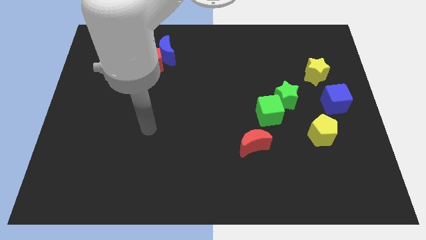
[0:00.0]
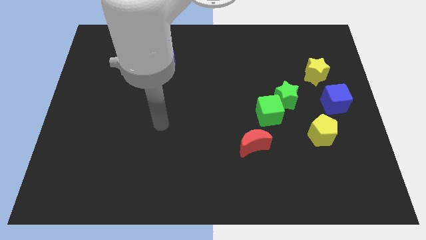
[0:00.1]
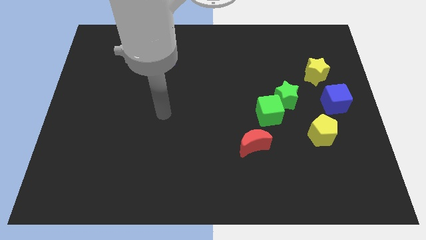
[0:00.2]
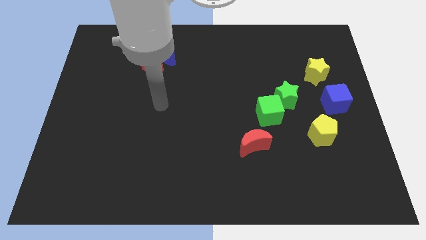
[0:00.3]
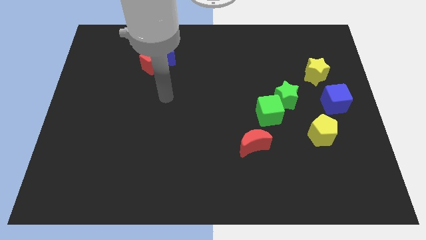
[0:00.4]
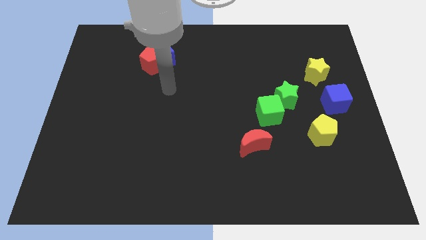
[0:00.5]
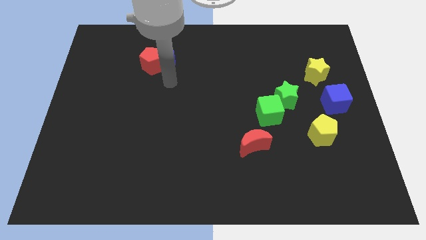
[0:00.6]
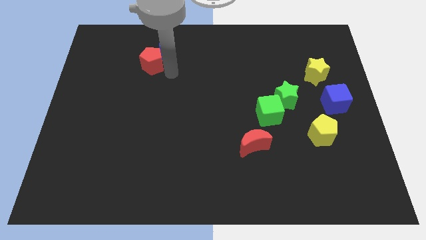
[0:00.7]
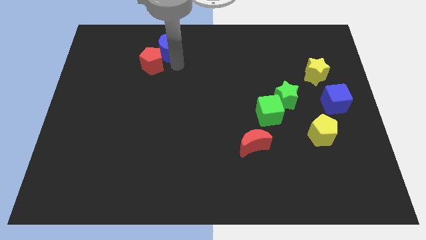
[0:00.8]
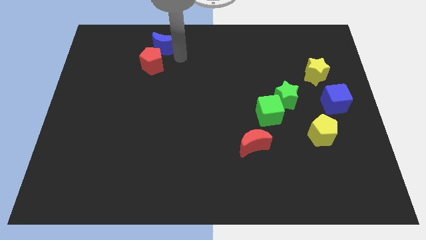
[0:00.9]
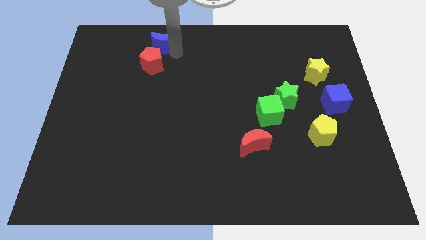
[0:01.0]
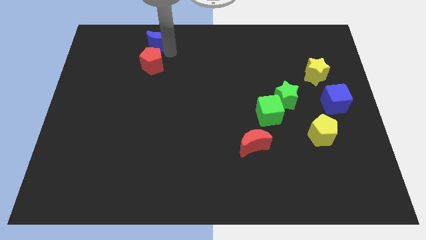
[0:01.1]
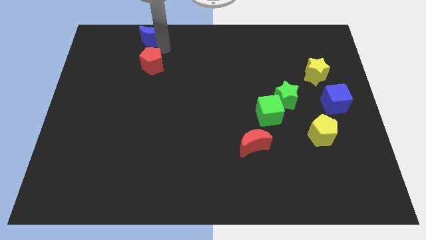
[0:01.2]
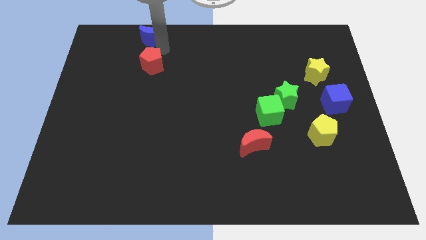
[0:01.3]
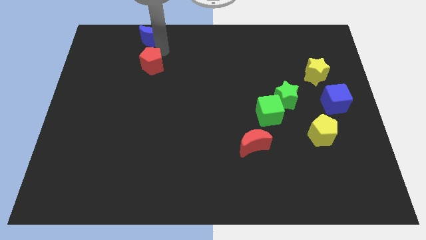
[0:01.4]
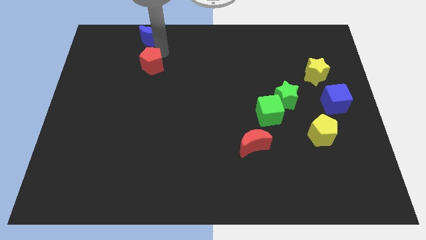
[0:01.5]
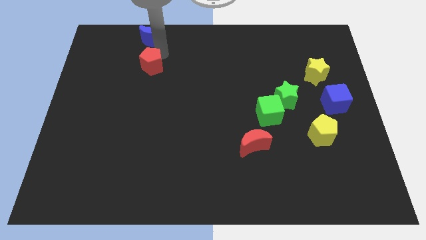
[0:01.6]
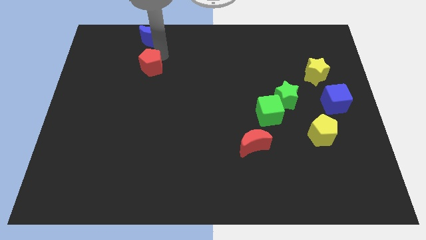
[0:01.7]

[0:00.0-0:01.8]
separate the red pentagon from the blue moon

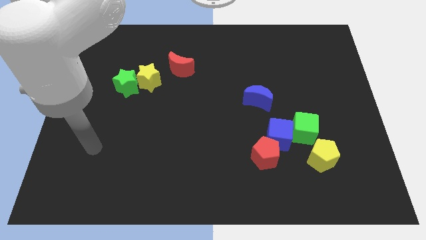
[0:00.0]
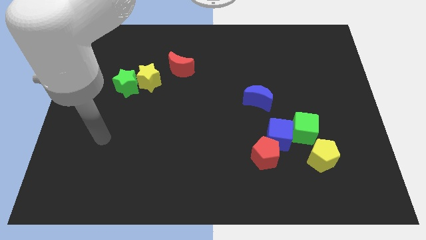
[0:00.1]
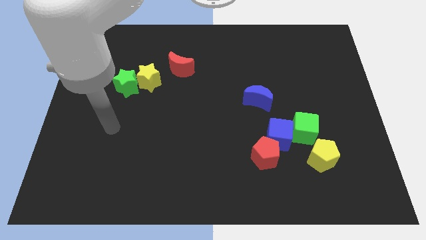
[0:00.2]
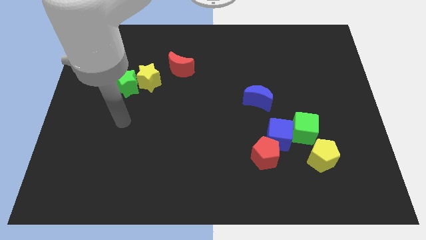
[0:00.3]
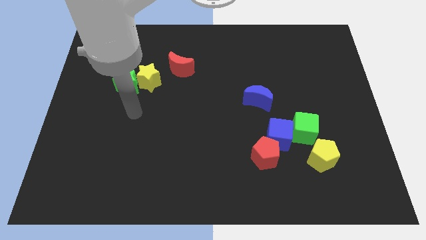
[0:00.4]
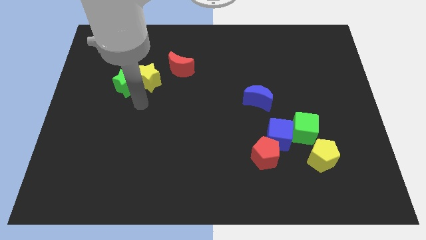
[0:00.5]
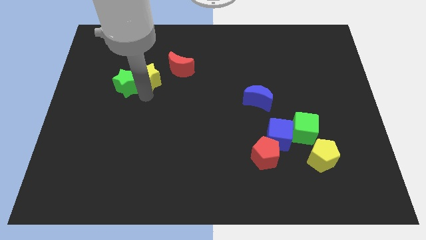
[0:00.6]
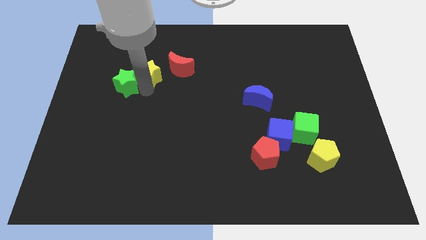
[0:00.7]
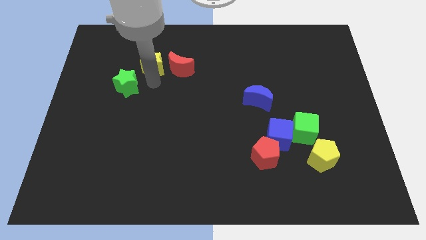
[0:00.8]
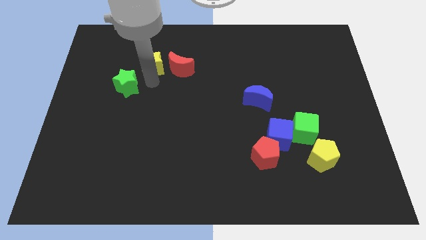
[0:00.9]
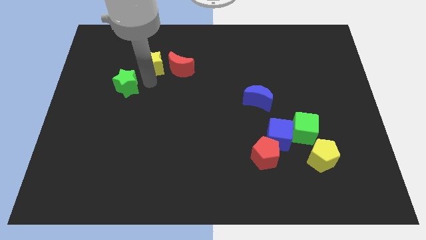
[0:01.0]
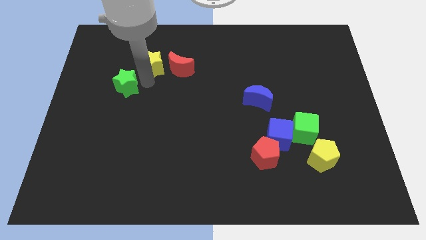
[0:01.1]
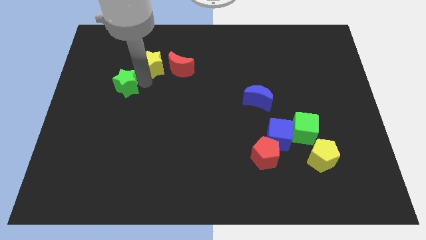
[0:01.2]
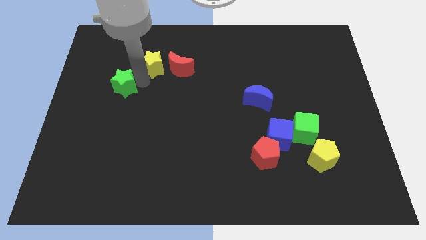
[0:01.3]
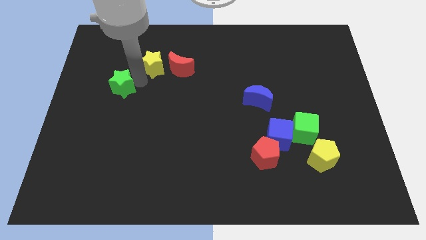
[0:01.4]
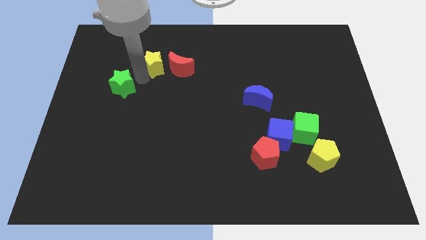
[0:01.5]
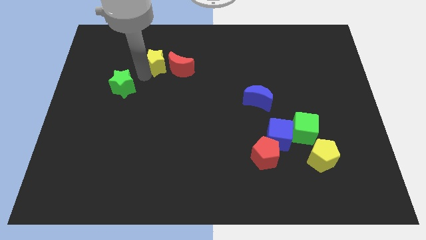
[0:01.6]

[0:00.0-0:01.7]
move the green star away from the yellow star

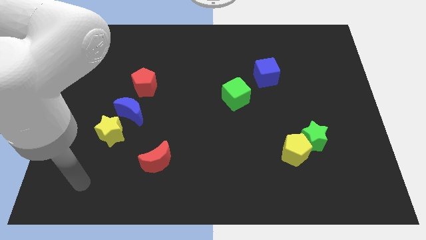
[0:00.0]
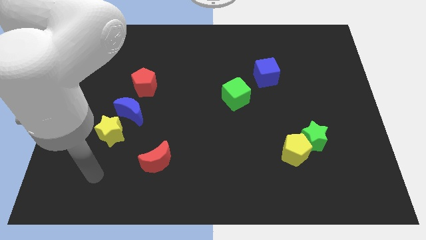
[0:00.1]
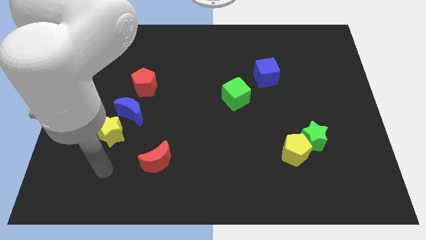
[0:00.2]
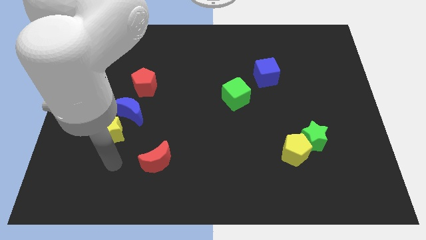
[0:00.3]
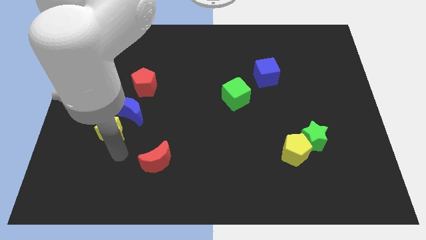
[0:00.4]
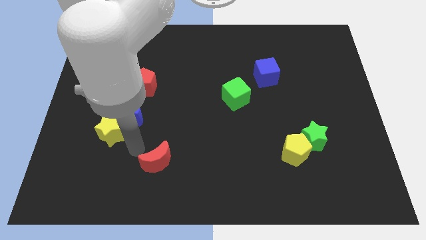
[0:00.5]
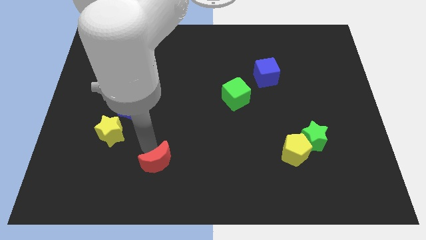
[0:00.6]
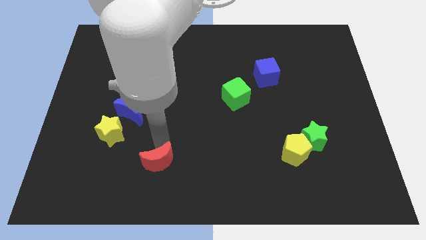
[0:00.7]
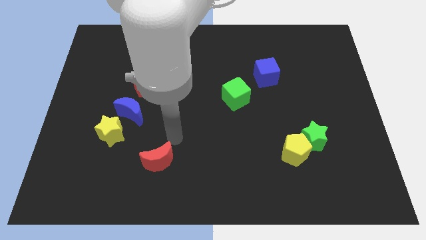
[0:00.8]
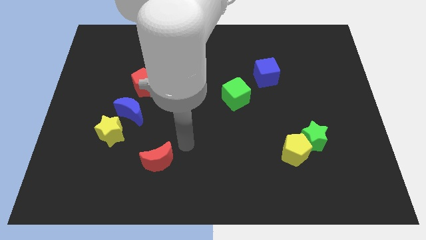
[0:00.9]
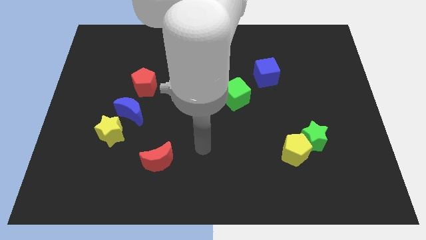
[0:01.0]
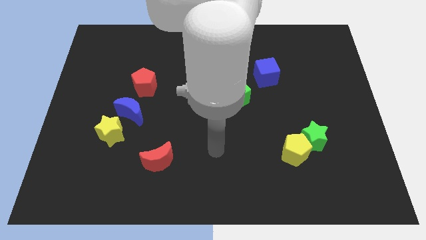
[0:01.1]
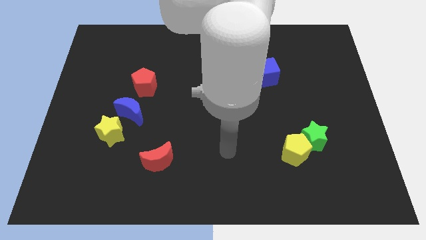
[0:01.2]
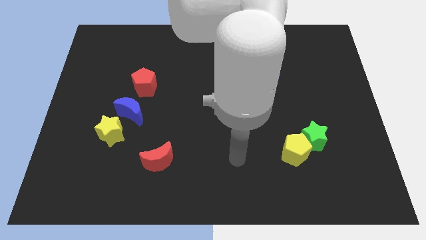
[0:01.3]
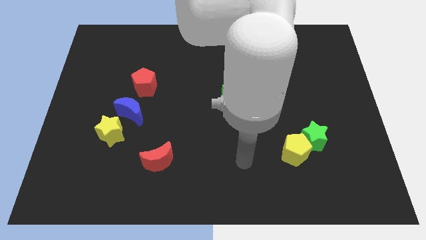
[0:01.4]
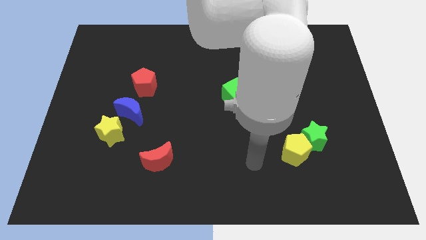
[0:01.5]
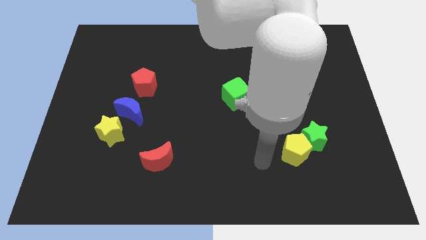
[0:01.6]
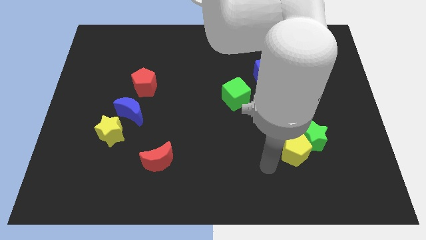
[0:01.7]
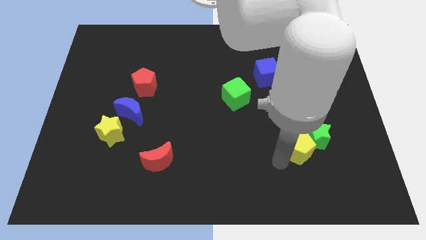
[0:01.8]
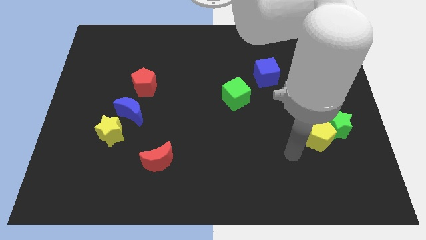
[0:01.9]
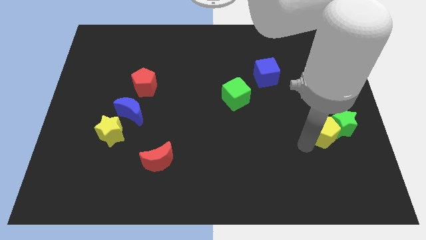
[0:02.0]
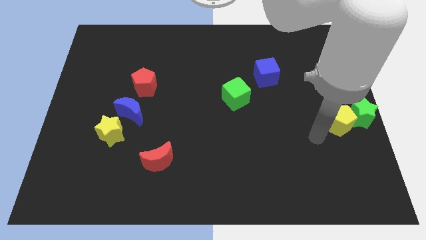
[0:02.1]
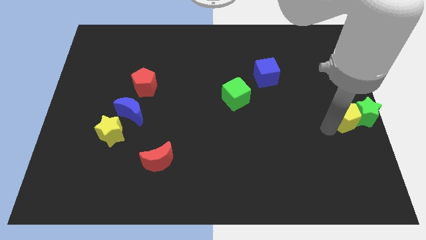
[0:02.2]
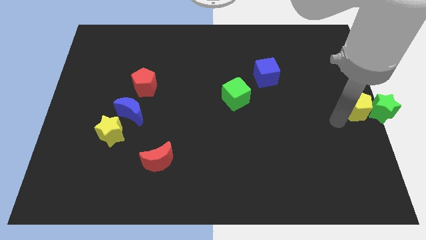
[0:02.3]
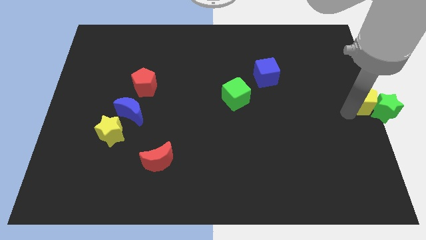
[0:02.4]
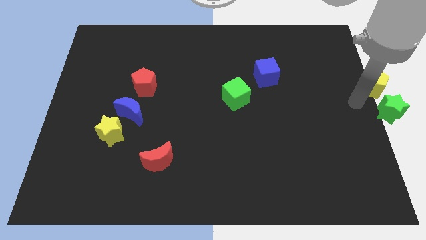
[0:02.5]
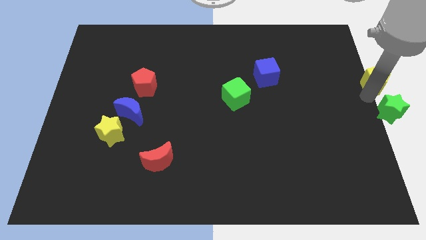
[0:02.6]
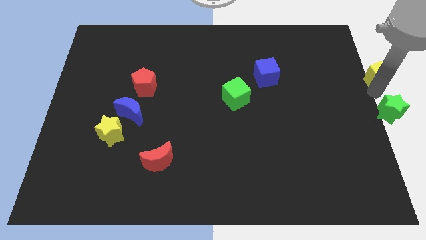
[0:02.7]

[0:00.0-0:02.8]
separate the green star from the yellow pentagon

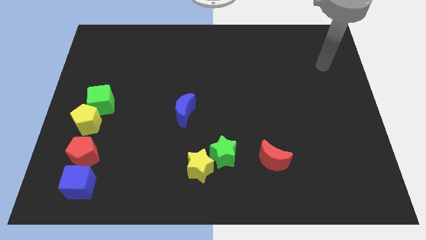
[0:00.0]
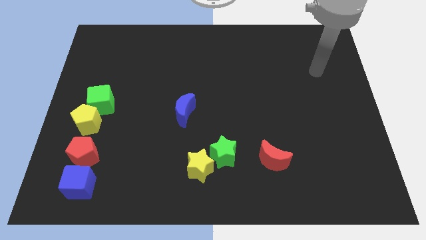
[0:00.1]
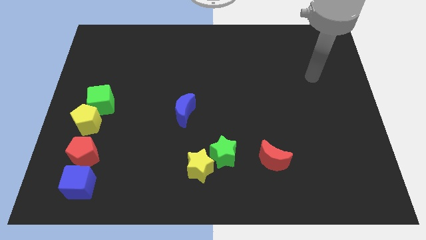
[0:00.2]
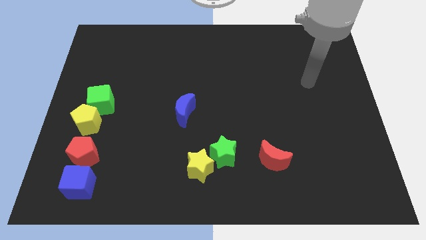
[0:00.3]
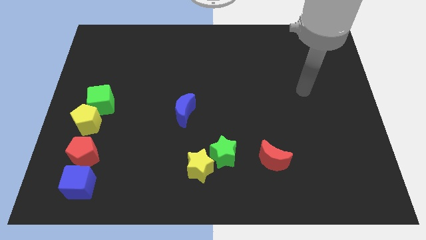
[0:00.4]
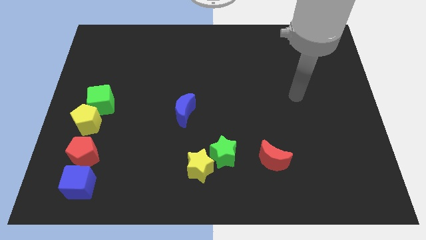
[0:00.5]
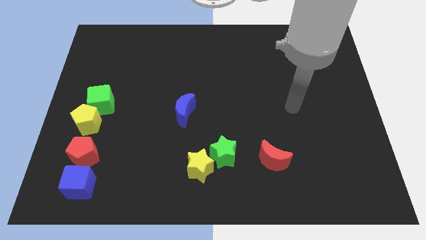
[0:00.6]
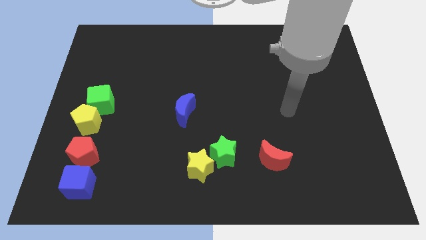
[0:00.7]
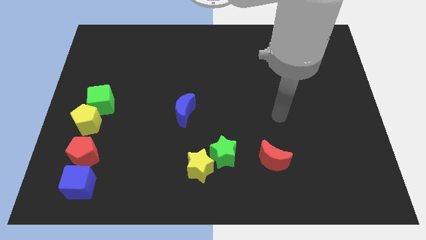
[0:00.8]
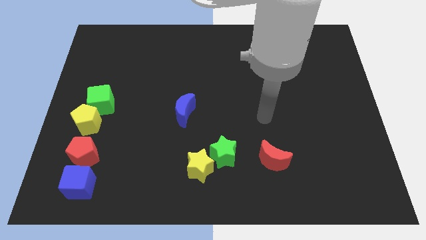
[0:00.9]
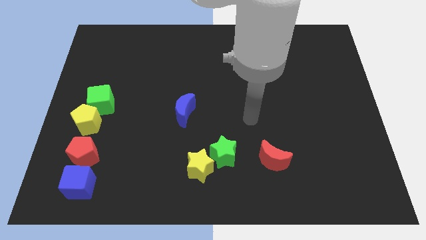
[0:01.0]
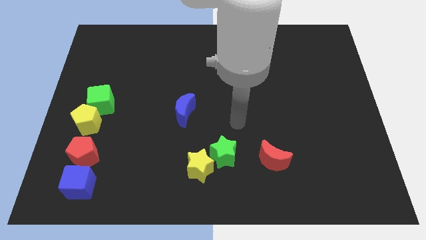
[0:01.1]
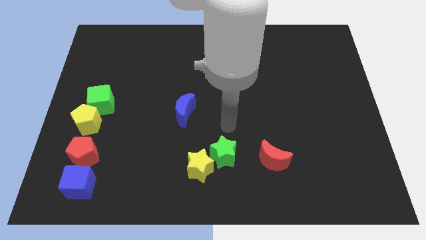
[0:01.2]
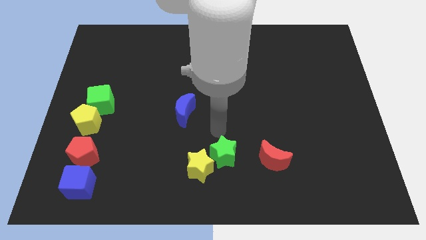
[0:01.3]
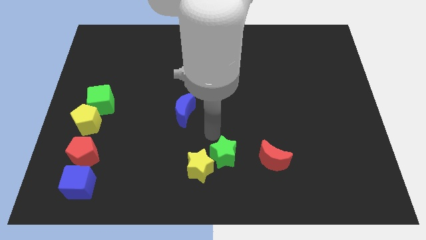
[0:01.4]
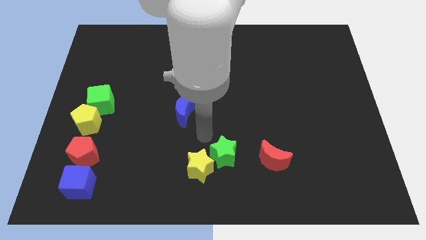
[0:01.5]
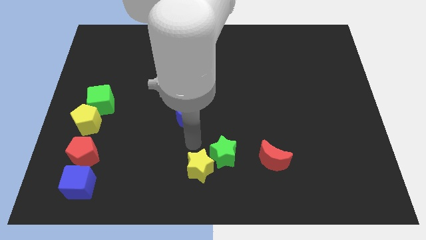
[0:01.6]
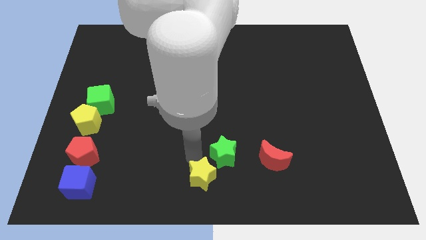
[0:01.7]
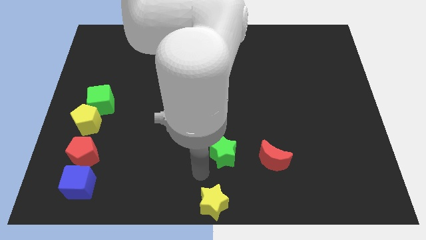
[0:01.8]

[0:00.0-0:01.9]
separate the green star from the yellow star

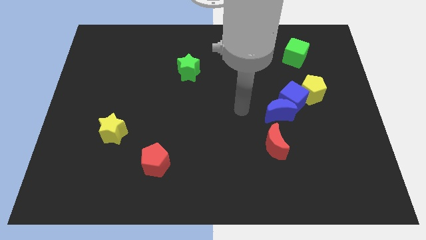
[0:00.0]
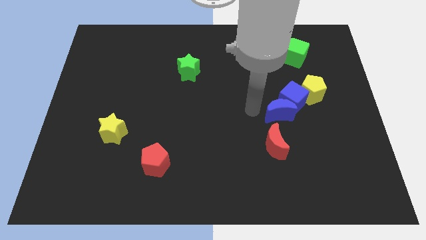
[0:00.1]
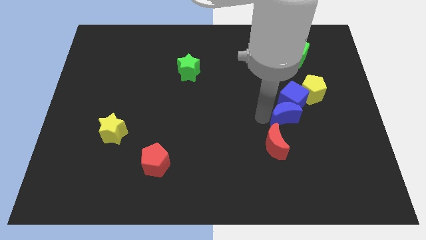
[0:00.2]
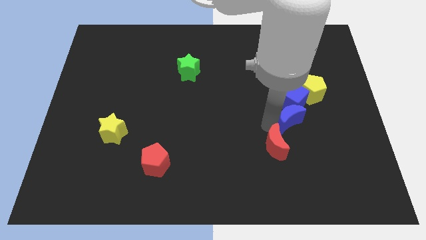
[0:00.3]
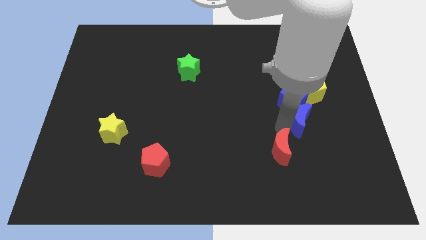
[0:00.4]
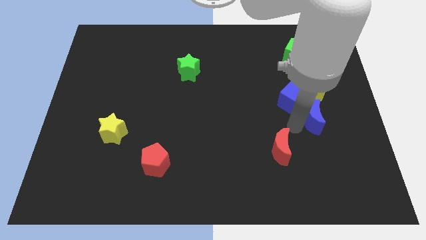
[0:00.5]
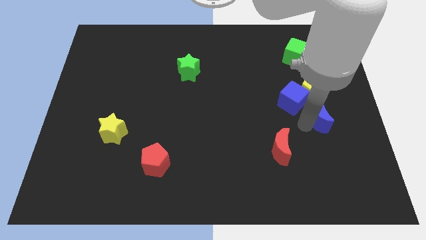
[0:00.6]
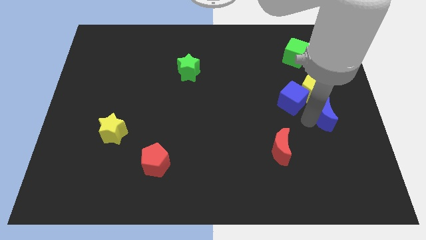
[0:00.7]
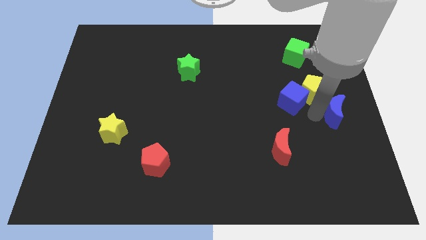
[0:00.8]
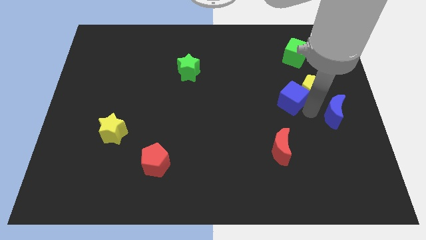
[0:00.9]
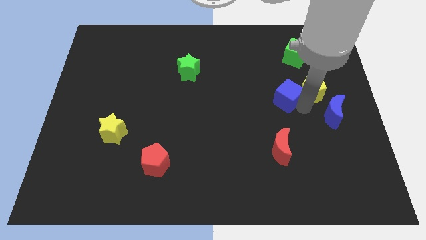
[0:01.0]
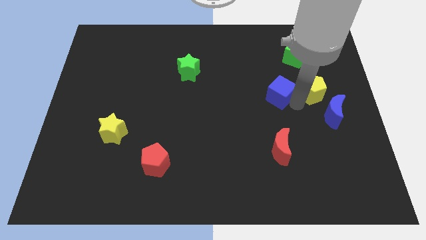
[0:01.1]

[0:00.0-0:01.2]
separate the blue cube from the blue moon and yellow pentagon
